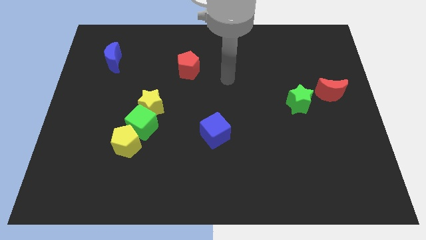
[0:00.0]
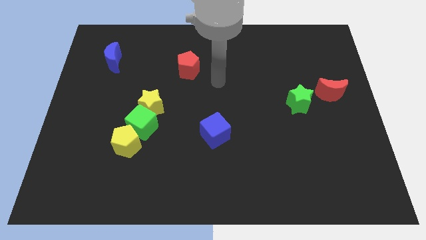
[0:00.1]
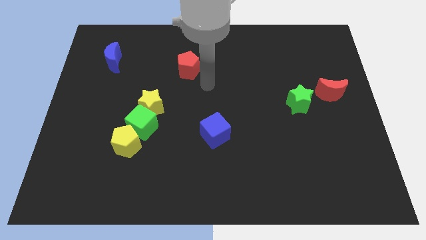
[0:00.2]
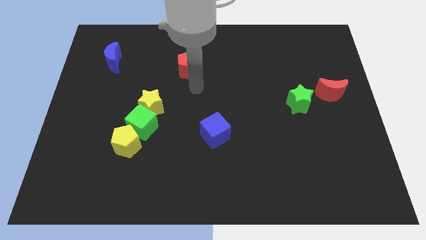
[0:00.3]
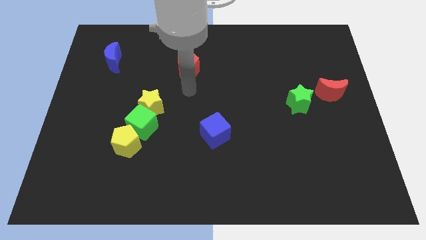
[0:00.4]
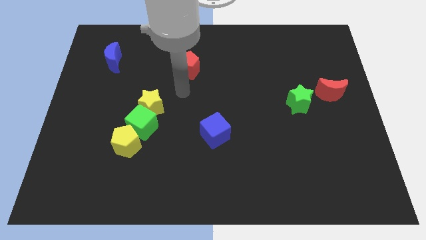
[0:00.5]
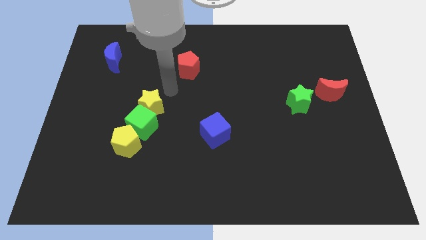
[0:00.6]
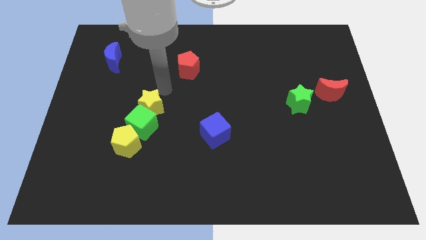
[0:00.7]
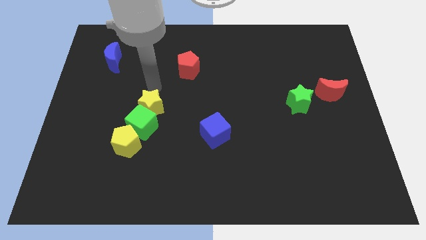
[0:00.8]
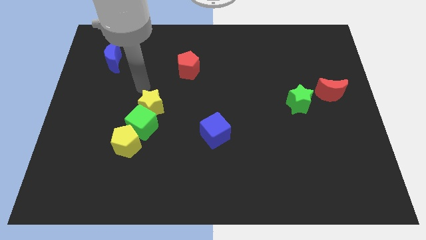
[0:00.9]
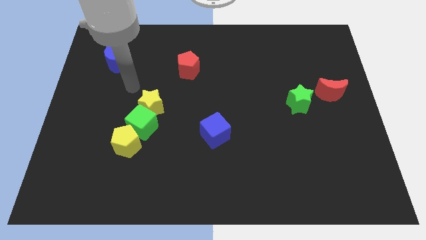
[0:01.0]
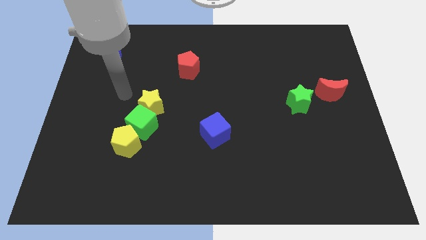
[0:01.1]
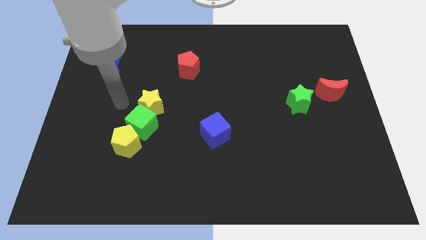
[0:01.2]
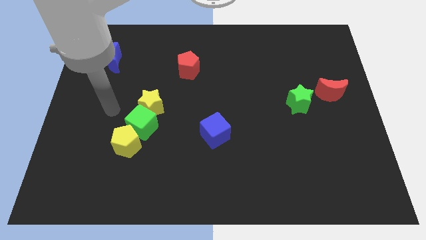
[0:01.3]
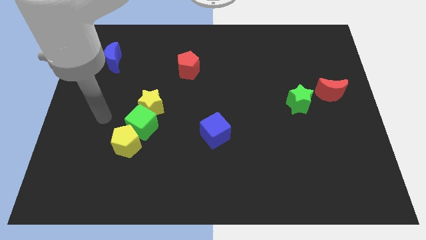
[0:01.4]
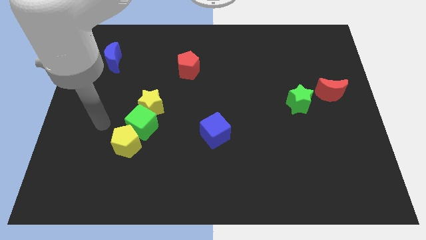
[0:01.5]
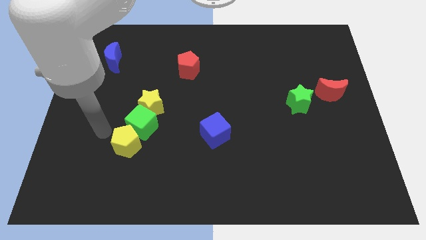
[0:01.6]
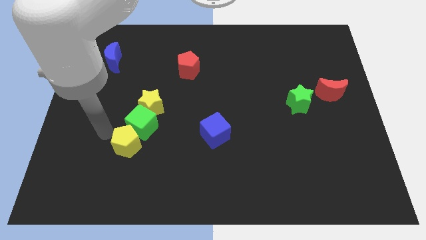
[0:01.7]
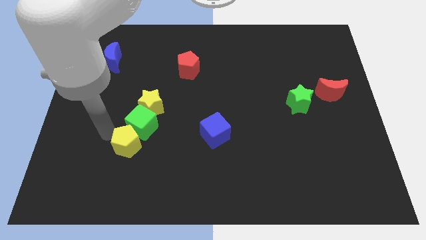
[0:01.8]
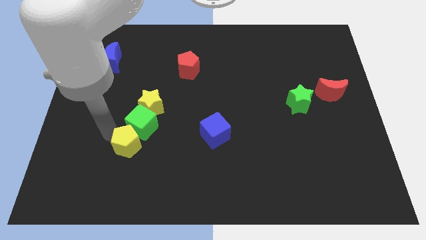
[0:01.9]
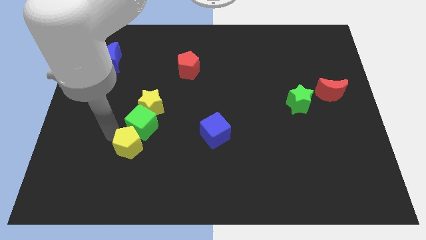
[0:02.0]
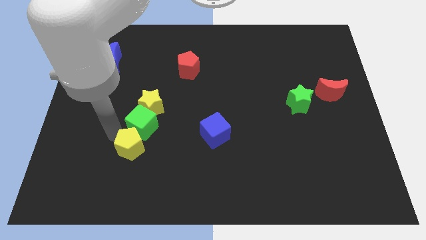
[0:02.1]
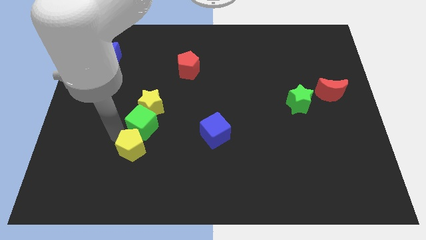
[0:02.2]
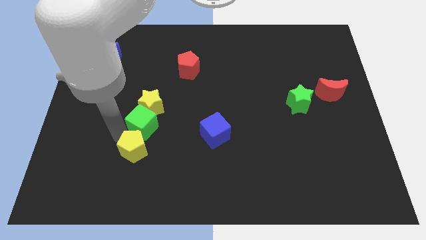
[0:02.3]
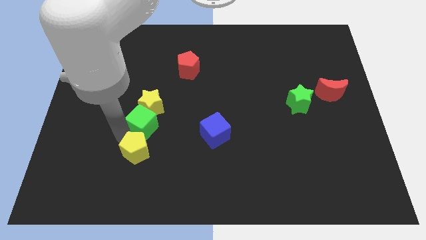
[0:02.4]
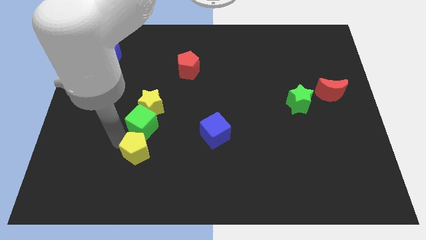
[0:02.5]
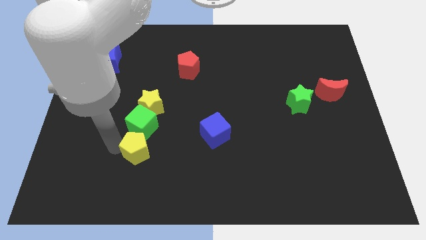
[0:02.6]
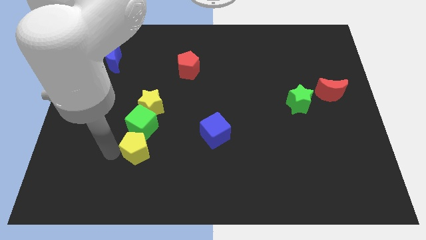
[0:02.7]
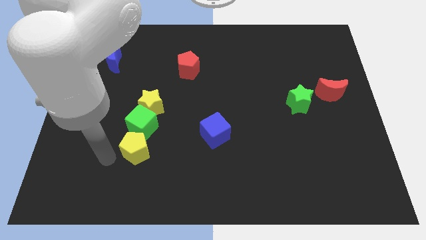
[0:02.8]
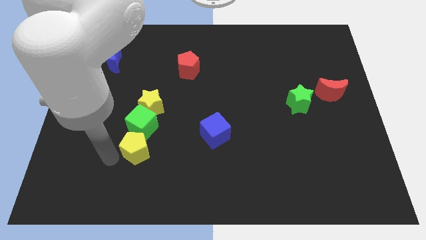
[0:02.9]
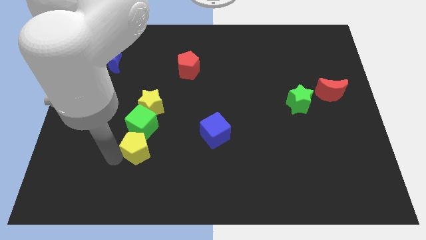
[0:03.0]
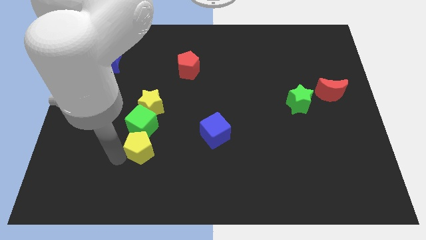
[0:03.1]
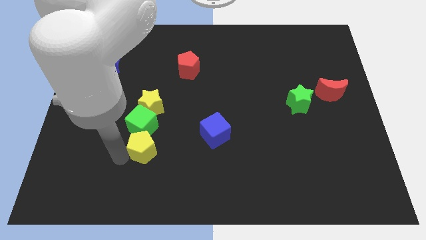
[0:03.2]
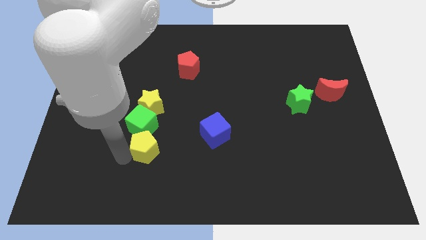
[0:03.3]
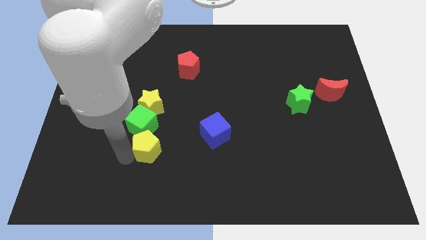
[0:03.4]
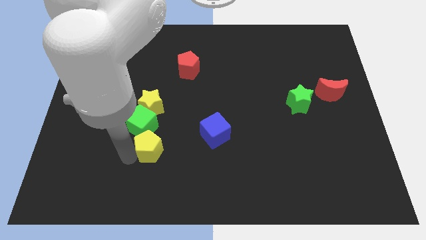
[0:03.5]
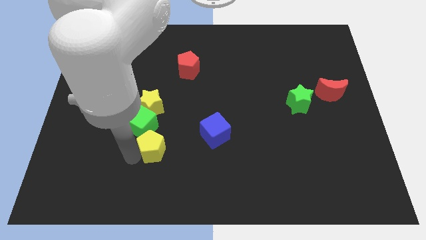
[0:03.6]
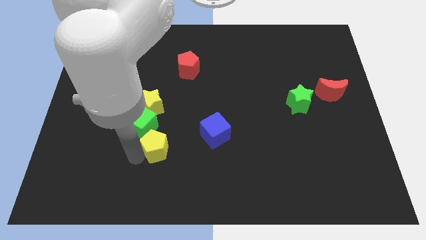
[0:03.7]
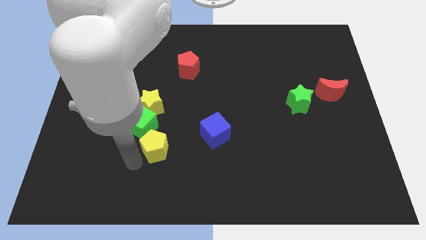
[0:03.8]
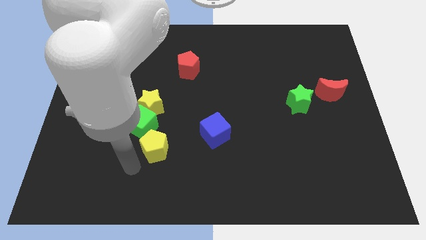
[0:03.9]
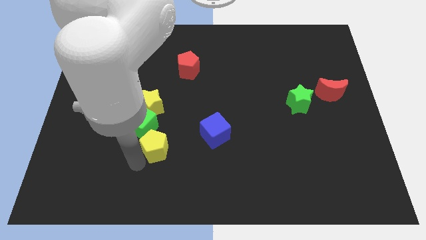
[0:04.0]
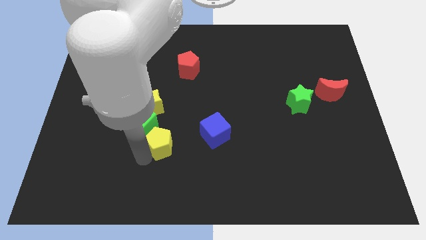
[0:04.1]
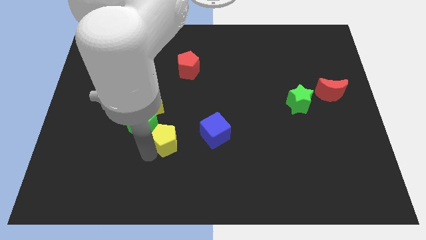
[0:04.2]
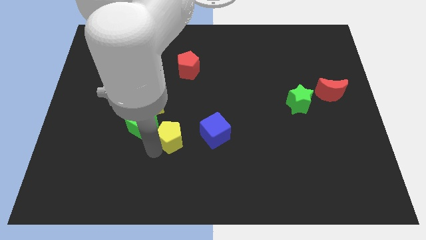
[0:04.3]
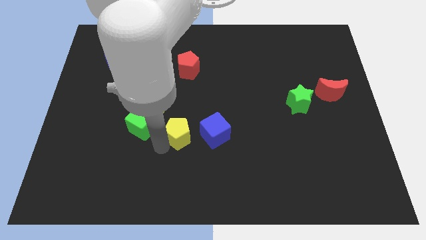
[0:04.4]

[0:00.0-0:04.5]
move the yellow pentagon a little diagonally upwards and right

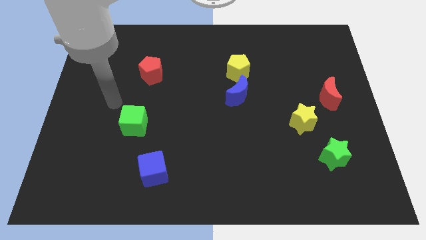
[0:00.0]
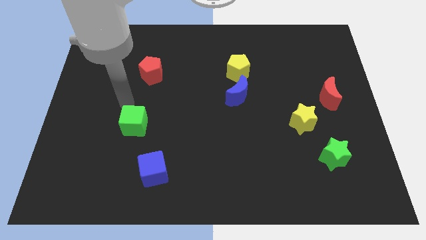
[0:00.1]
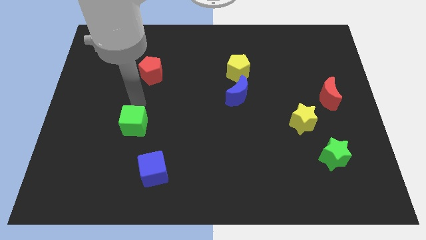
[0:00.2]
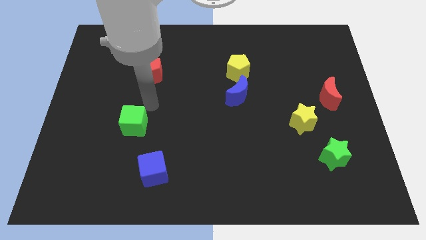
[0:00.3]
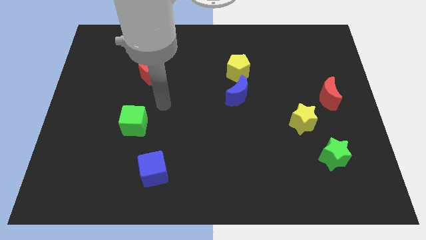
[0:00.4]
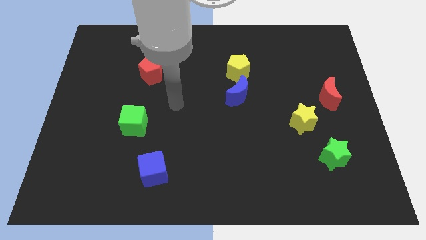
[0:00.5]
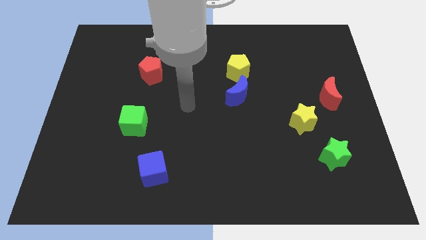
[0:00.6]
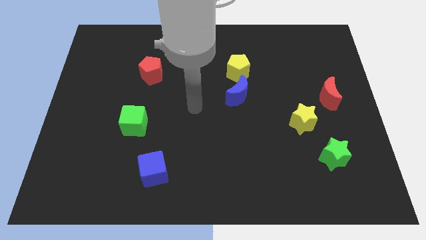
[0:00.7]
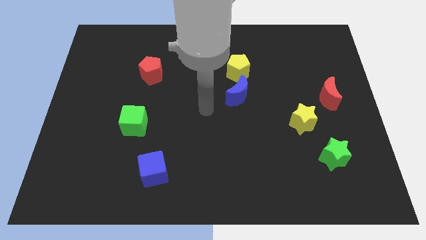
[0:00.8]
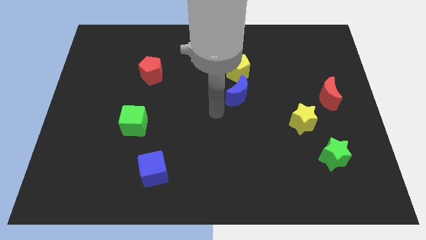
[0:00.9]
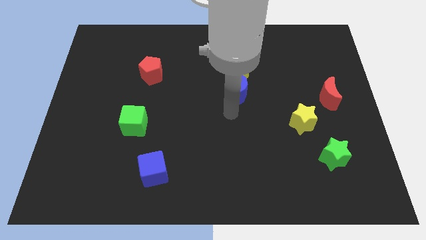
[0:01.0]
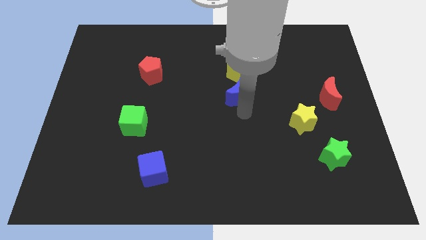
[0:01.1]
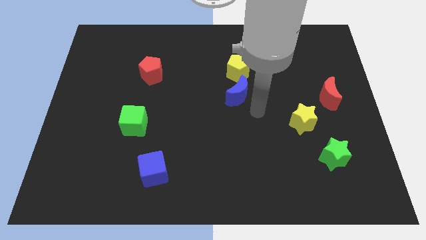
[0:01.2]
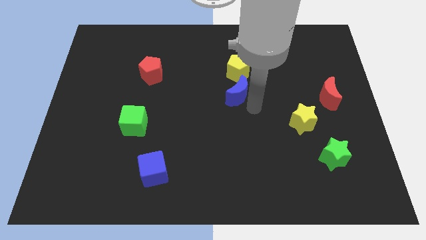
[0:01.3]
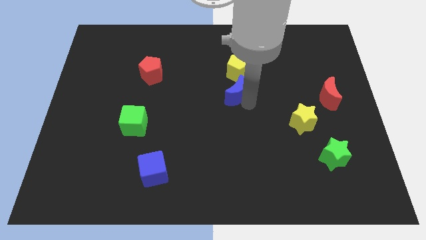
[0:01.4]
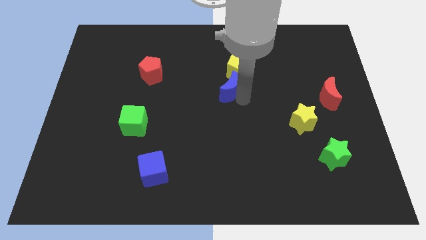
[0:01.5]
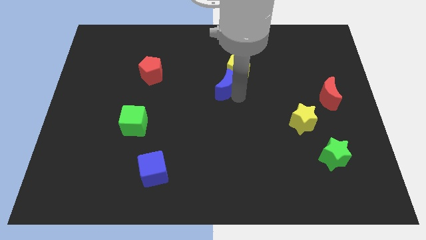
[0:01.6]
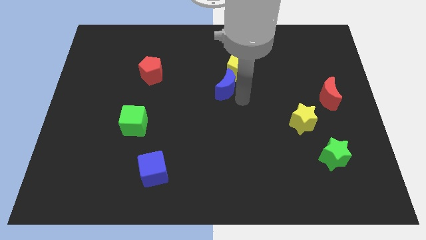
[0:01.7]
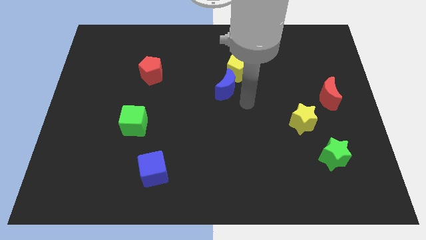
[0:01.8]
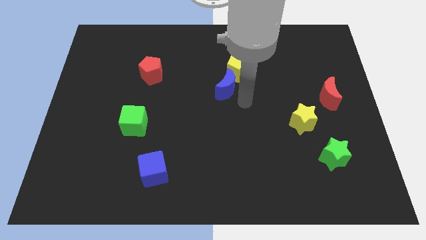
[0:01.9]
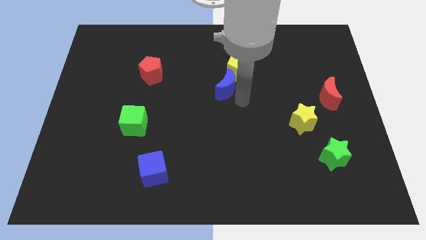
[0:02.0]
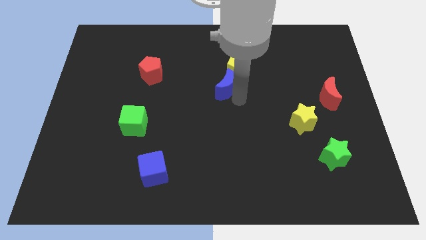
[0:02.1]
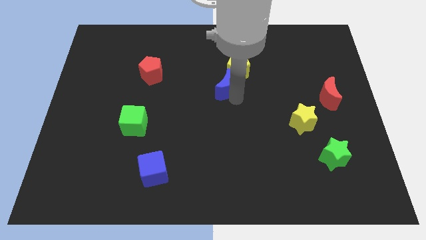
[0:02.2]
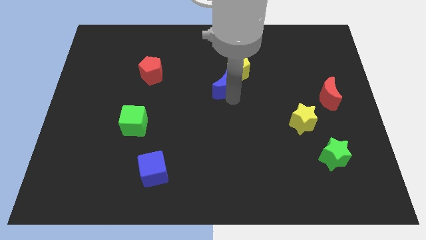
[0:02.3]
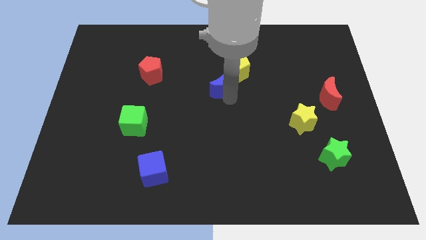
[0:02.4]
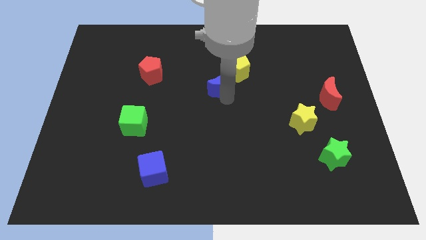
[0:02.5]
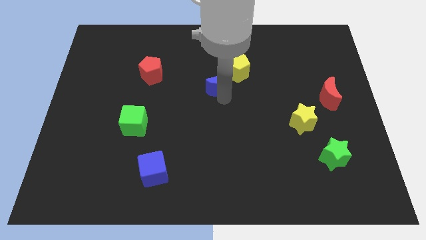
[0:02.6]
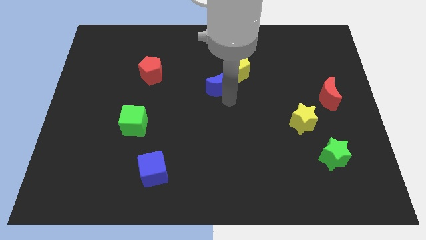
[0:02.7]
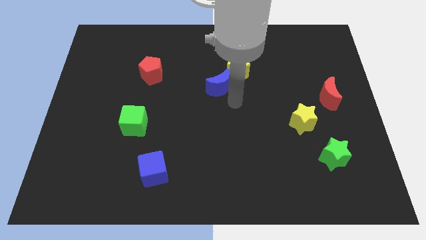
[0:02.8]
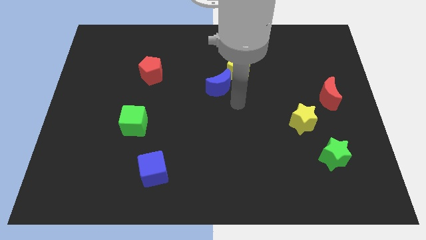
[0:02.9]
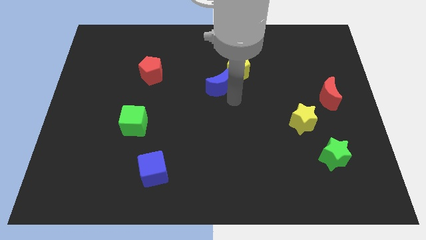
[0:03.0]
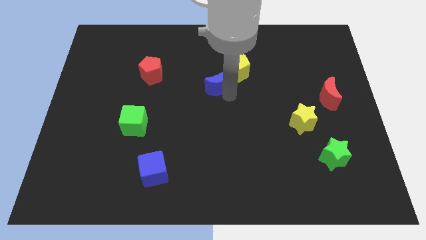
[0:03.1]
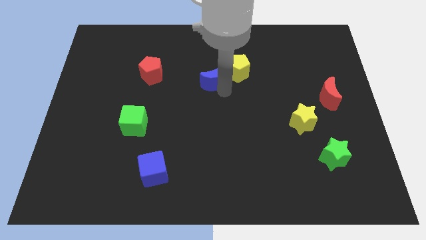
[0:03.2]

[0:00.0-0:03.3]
slightly slide the blue moon upwards and then to the left
